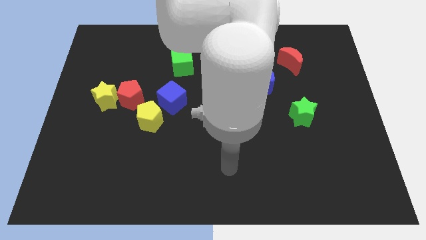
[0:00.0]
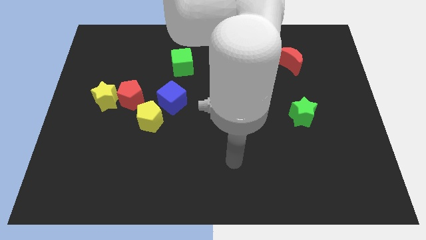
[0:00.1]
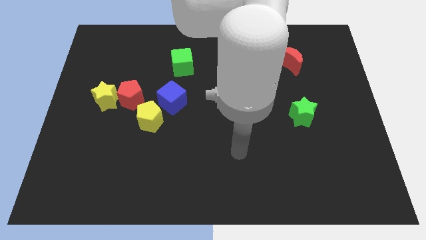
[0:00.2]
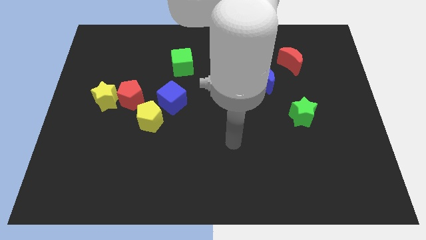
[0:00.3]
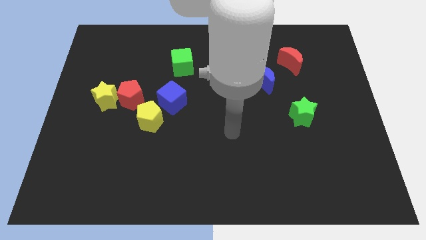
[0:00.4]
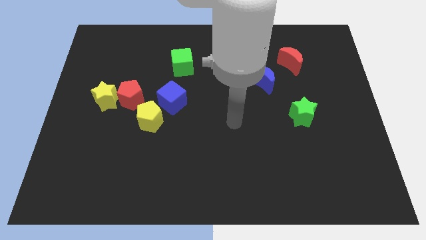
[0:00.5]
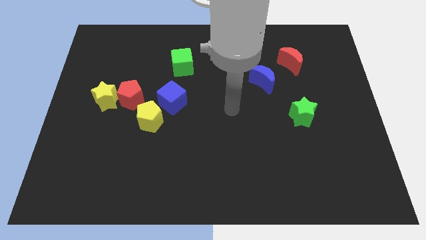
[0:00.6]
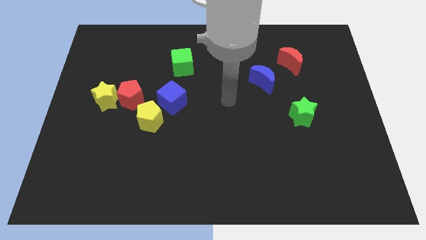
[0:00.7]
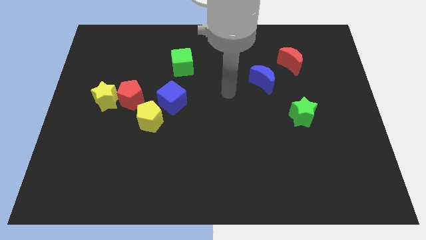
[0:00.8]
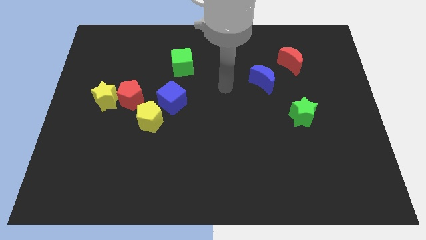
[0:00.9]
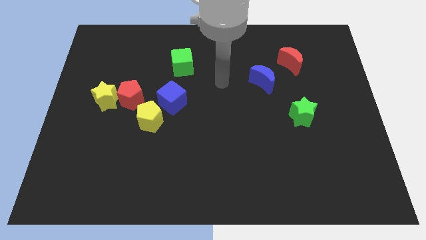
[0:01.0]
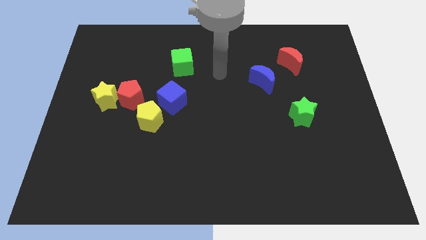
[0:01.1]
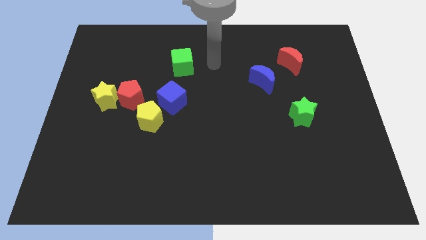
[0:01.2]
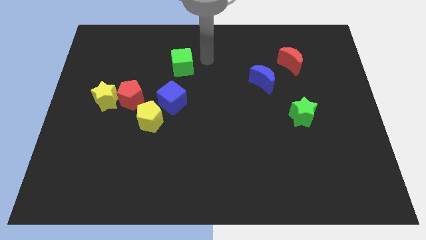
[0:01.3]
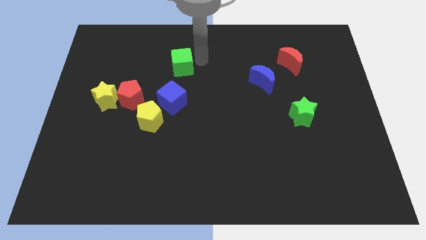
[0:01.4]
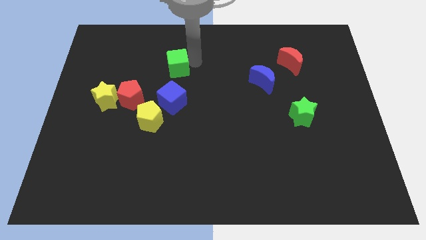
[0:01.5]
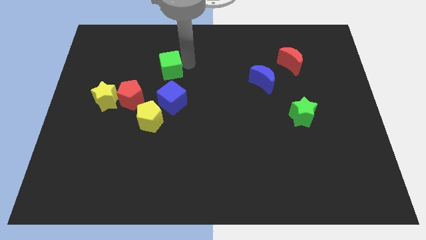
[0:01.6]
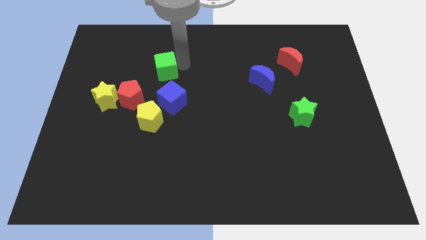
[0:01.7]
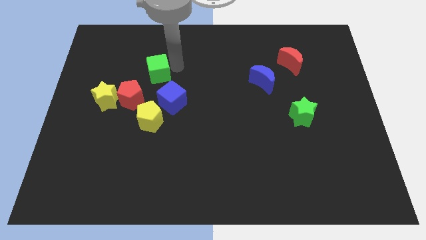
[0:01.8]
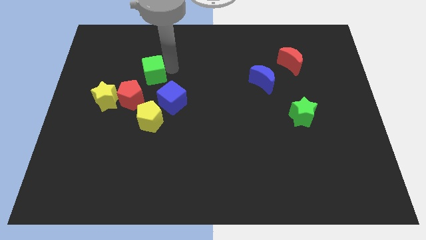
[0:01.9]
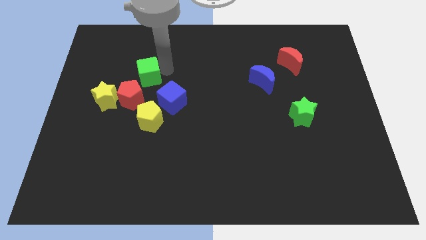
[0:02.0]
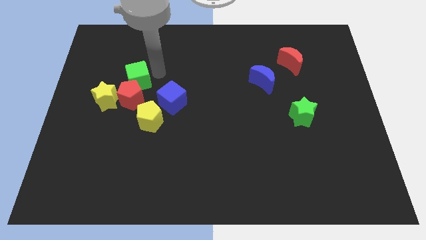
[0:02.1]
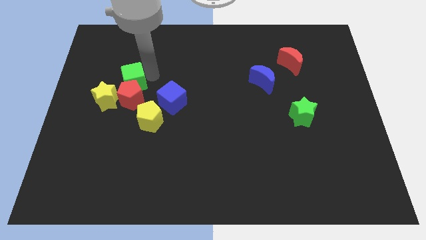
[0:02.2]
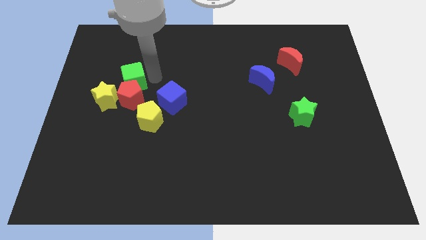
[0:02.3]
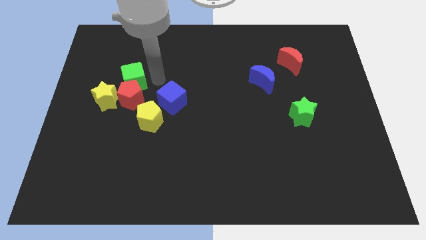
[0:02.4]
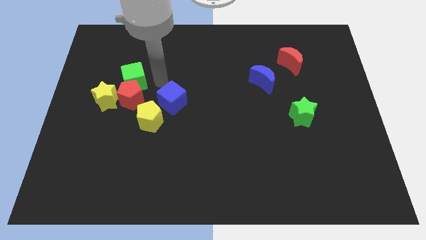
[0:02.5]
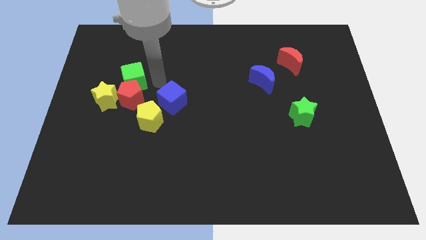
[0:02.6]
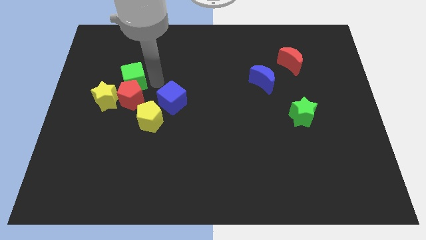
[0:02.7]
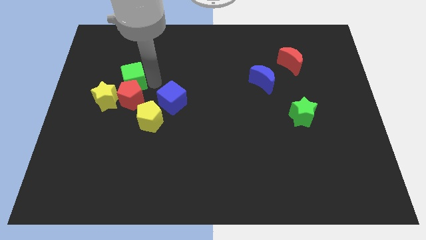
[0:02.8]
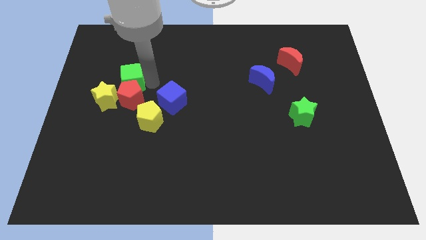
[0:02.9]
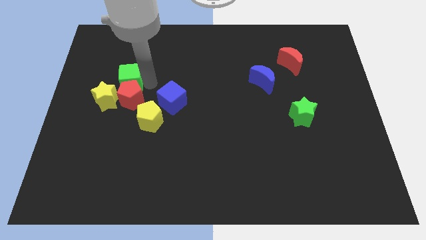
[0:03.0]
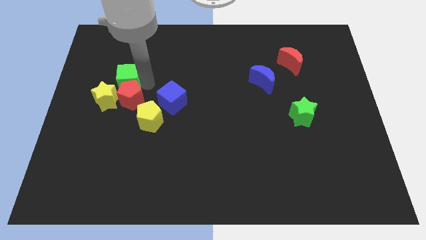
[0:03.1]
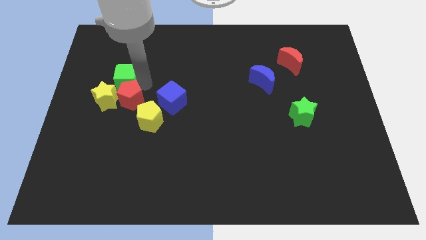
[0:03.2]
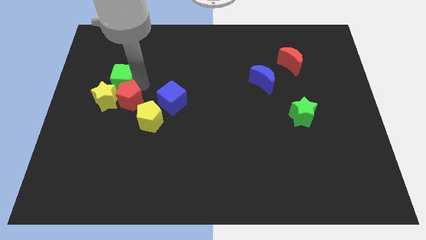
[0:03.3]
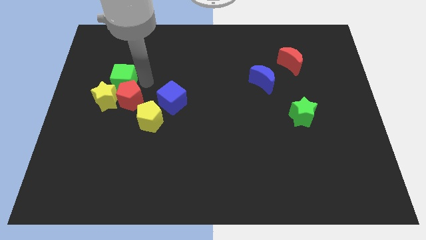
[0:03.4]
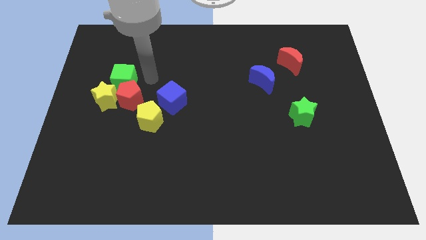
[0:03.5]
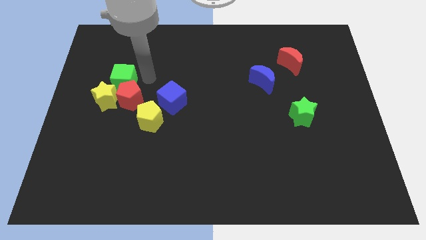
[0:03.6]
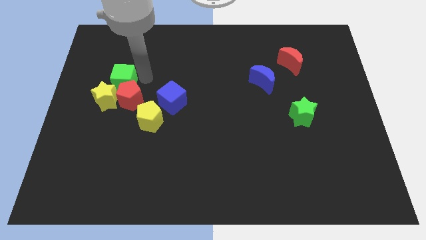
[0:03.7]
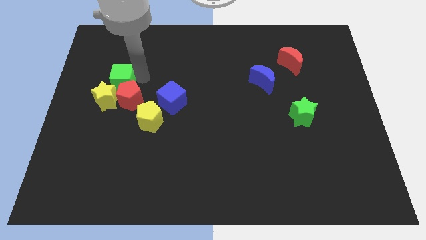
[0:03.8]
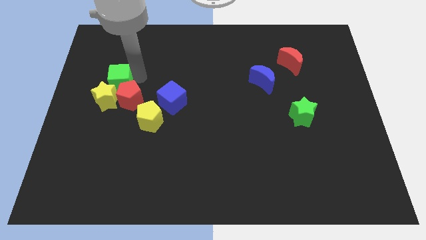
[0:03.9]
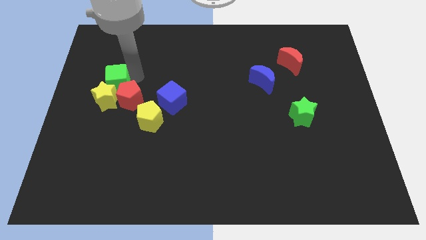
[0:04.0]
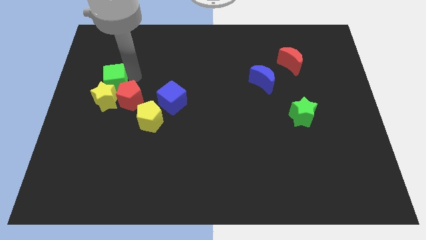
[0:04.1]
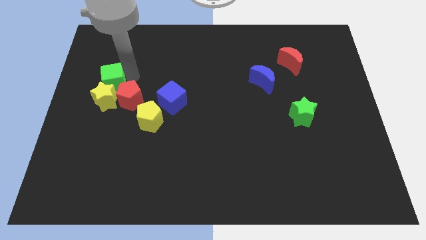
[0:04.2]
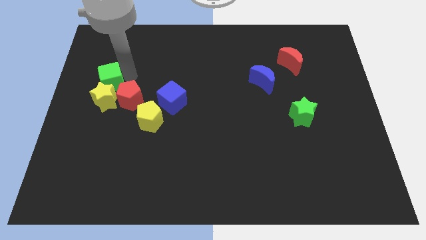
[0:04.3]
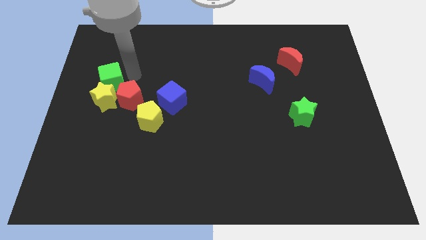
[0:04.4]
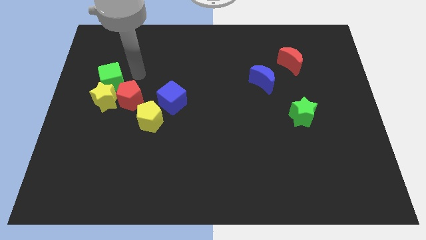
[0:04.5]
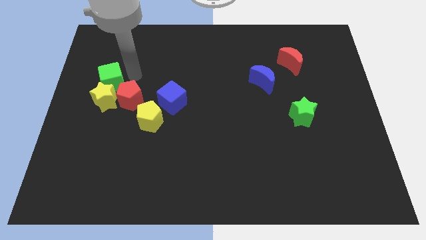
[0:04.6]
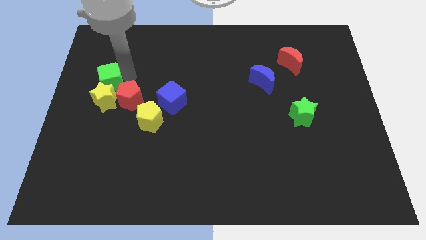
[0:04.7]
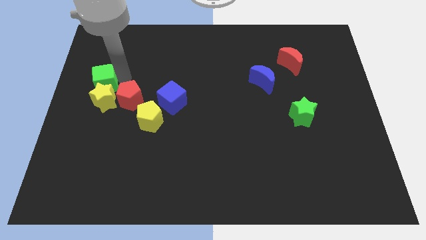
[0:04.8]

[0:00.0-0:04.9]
put the green cube to the left side

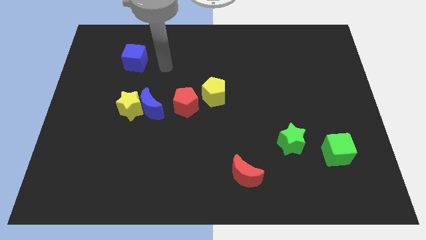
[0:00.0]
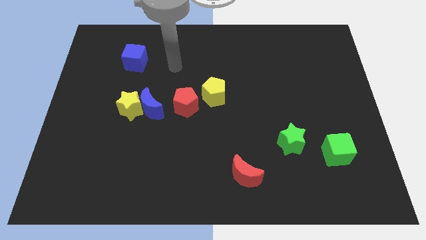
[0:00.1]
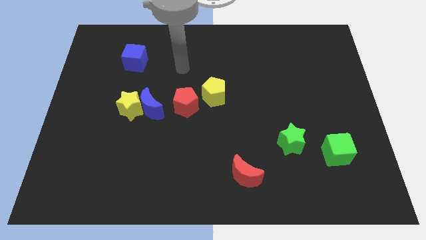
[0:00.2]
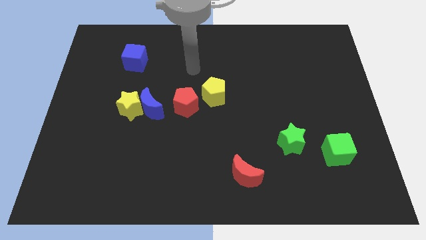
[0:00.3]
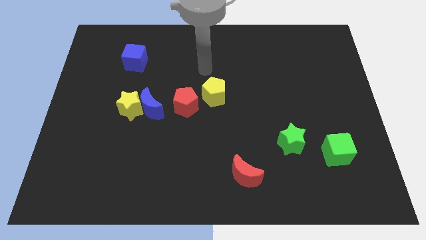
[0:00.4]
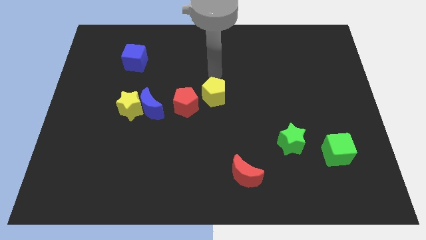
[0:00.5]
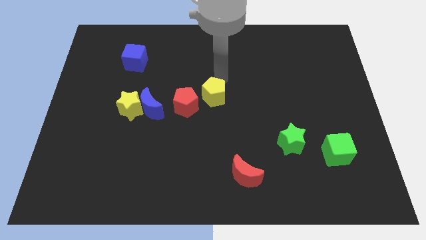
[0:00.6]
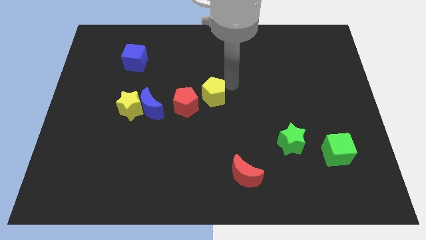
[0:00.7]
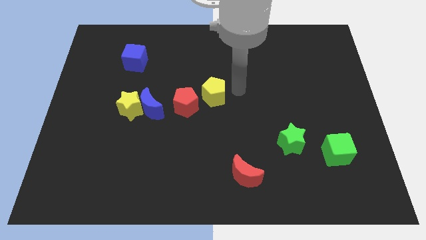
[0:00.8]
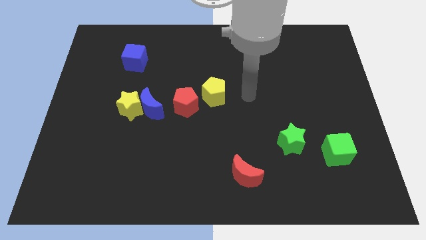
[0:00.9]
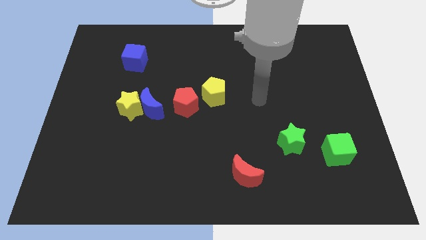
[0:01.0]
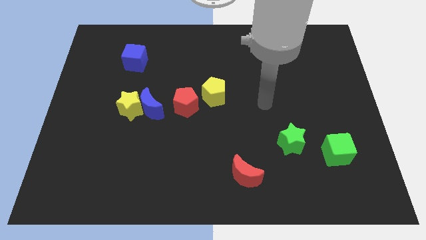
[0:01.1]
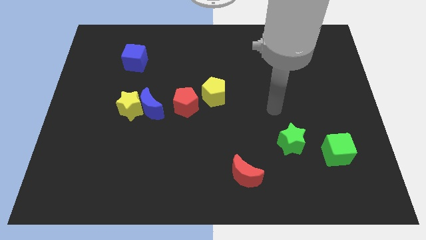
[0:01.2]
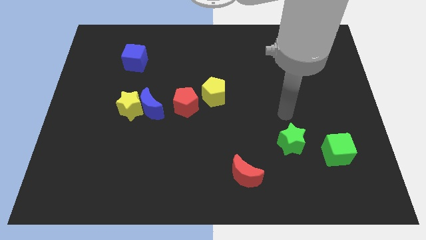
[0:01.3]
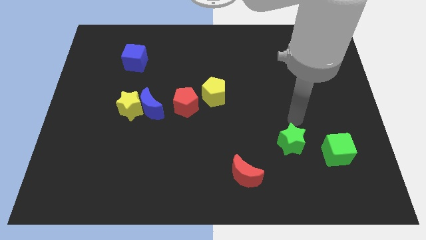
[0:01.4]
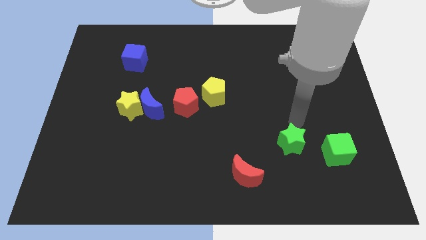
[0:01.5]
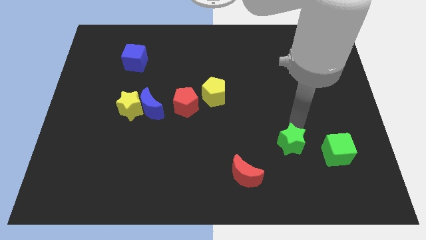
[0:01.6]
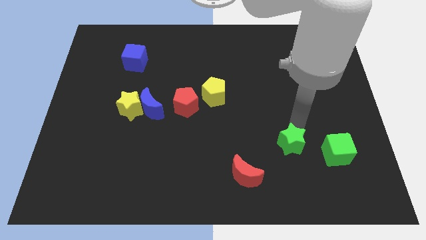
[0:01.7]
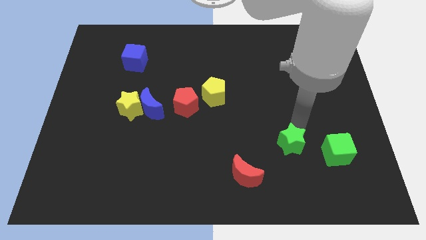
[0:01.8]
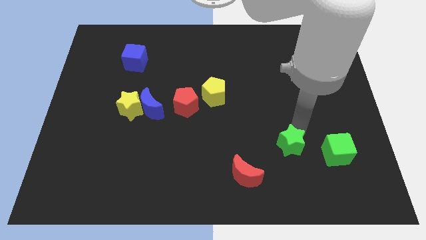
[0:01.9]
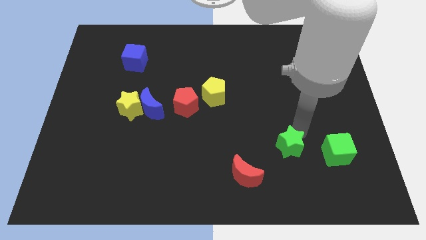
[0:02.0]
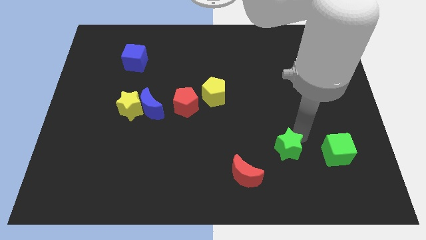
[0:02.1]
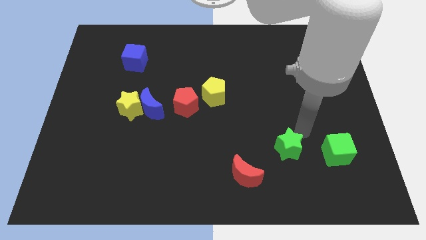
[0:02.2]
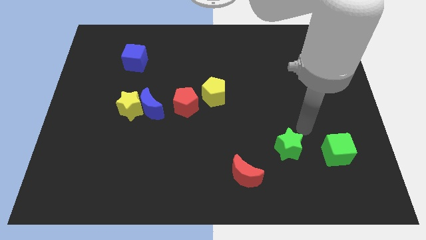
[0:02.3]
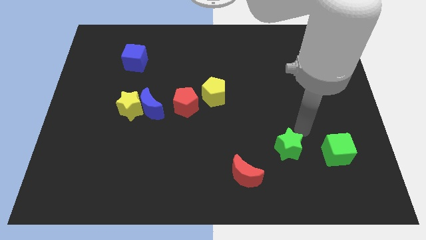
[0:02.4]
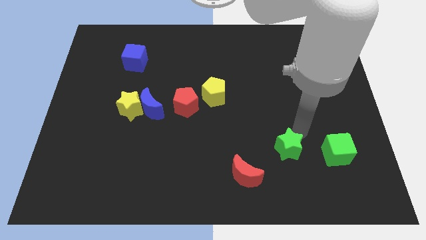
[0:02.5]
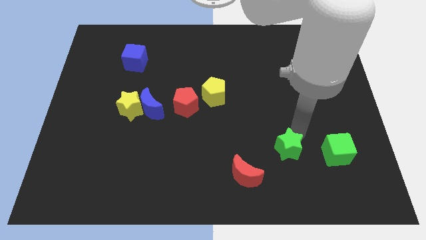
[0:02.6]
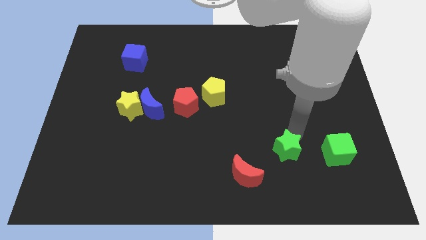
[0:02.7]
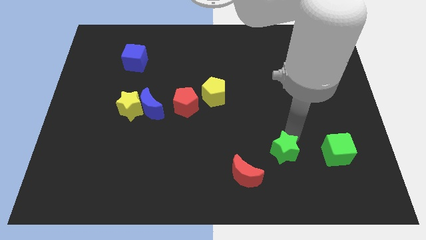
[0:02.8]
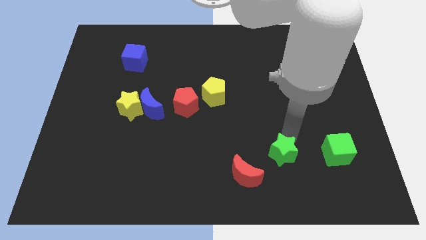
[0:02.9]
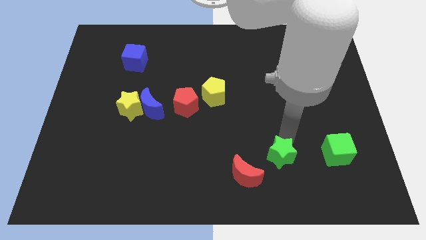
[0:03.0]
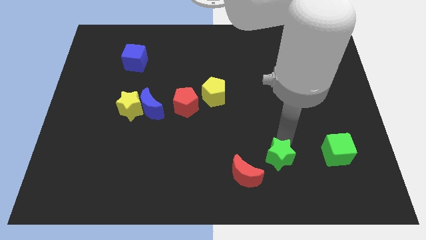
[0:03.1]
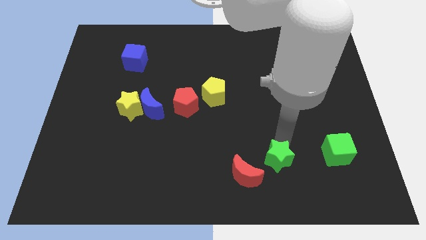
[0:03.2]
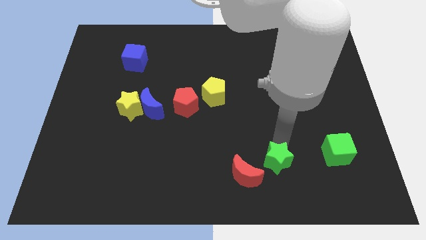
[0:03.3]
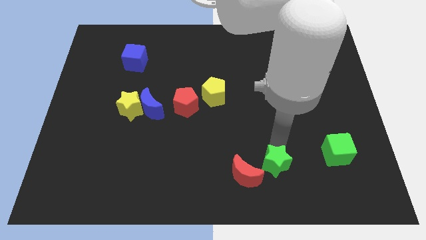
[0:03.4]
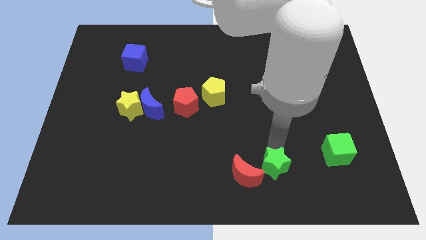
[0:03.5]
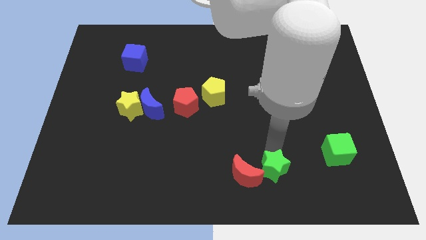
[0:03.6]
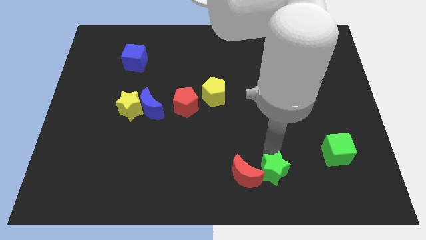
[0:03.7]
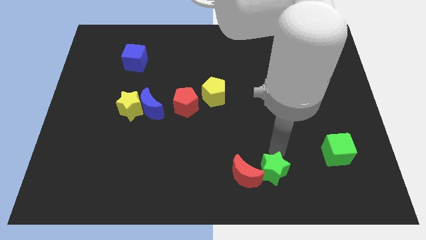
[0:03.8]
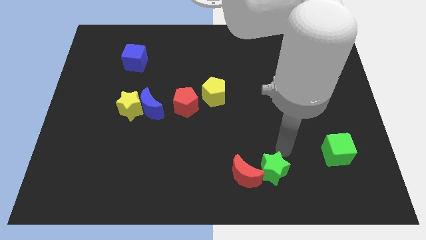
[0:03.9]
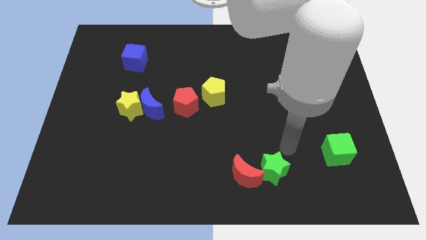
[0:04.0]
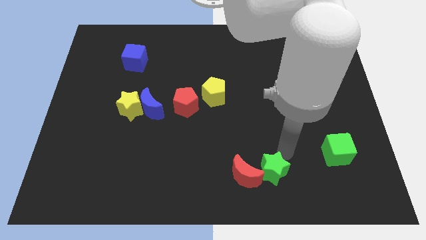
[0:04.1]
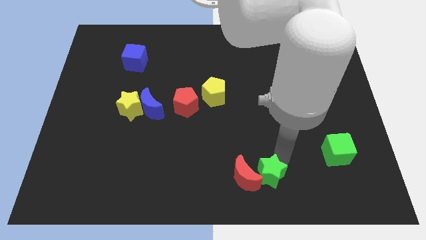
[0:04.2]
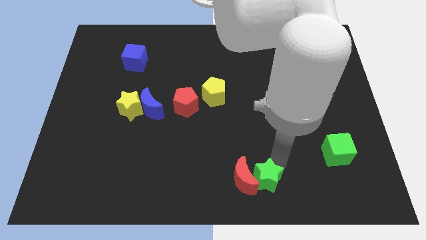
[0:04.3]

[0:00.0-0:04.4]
push the green star to the bottom
